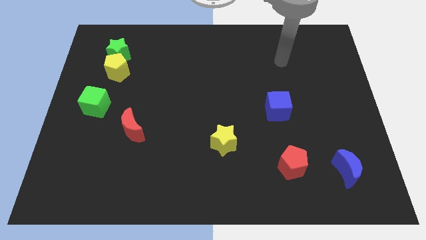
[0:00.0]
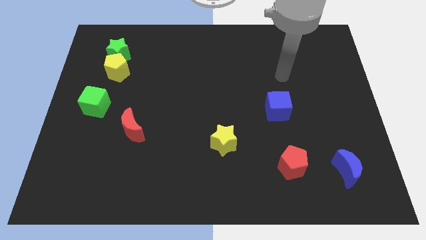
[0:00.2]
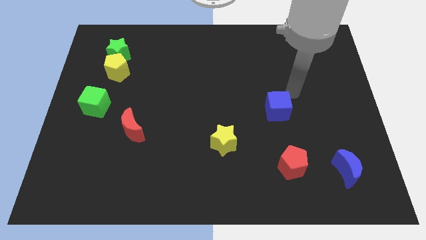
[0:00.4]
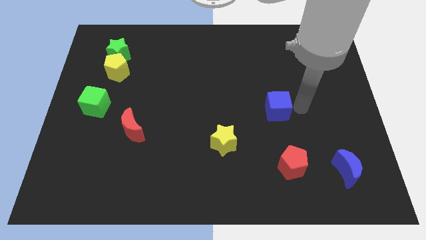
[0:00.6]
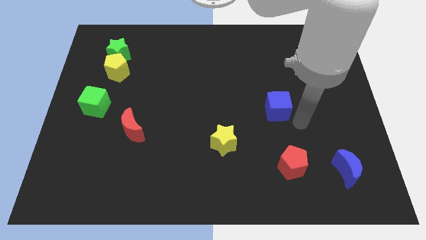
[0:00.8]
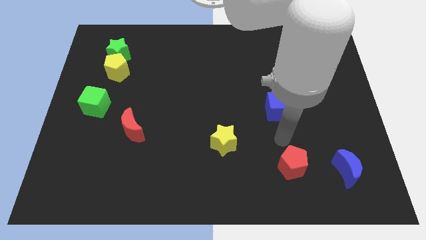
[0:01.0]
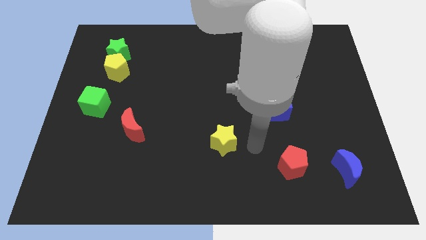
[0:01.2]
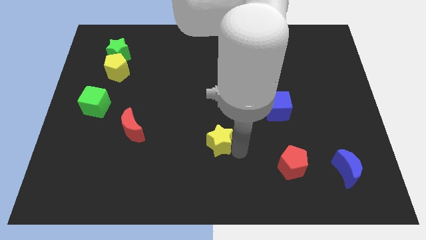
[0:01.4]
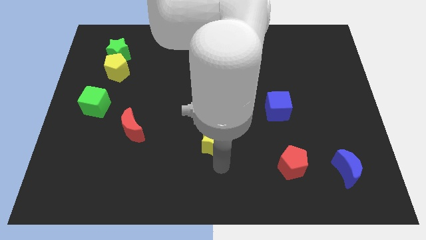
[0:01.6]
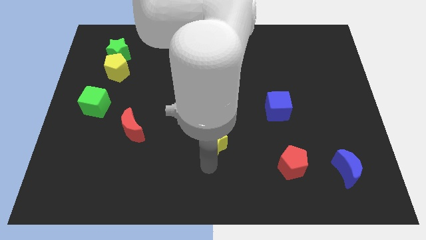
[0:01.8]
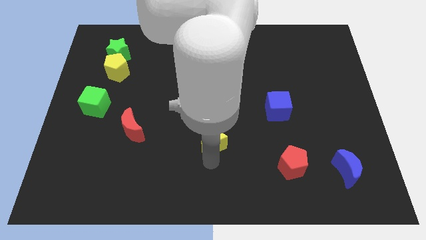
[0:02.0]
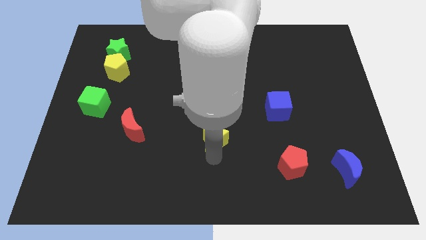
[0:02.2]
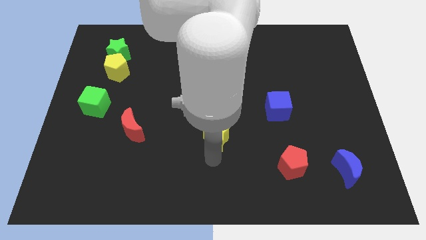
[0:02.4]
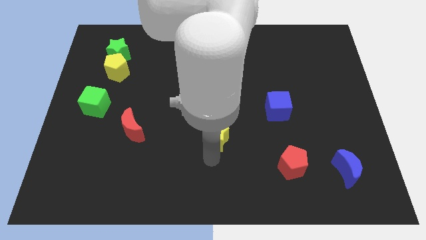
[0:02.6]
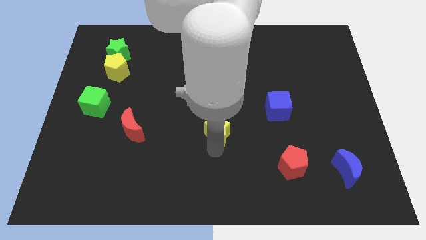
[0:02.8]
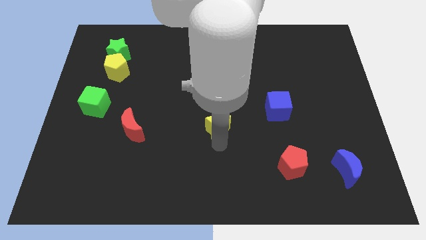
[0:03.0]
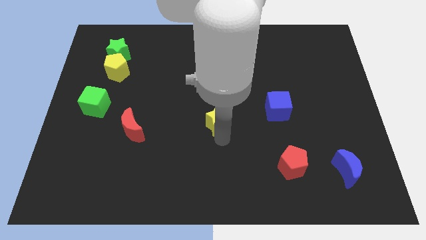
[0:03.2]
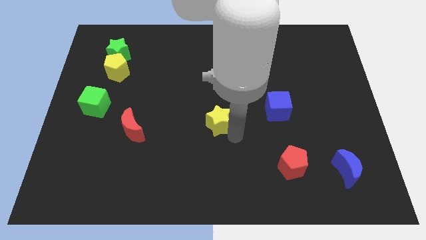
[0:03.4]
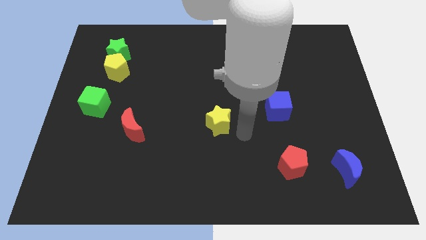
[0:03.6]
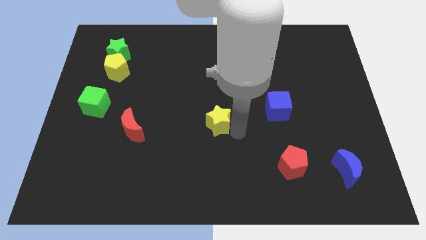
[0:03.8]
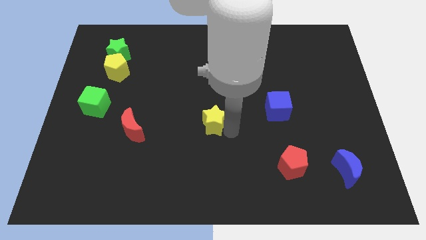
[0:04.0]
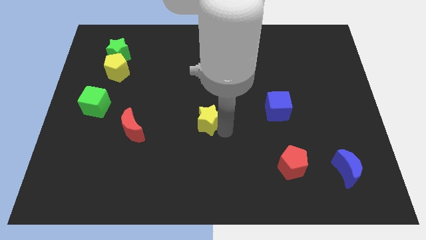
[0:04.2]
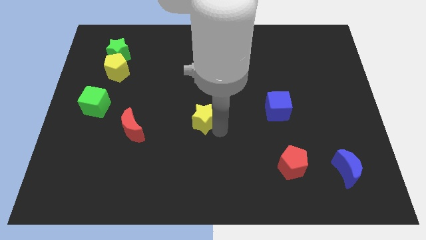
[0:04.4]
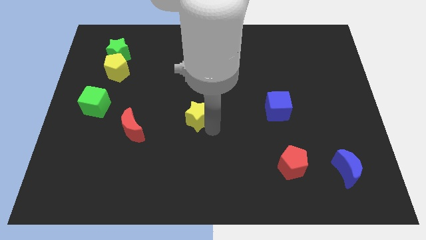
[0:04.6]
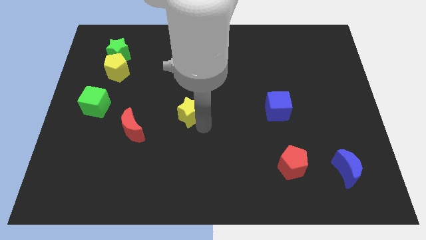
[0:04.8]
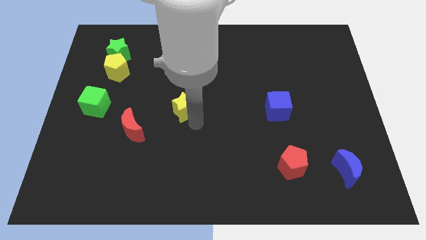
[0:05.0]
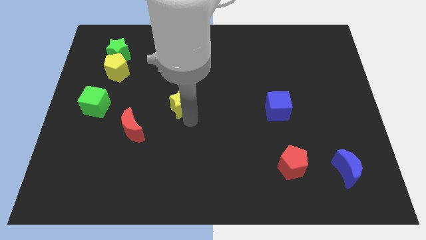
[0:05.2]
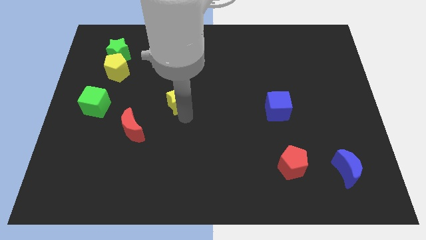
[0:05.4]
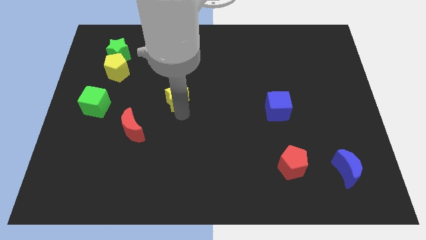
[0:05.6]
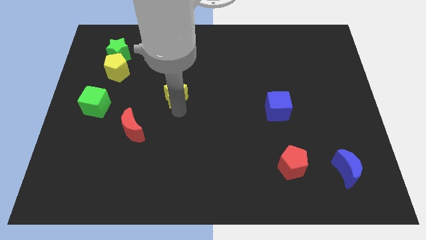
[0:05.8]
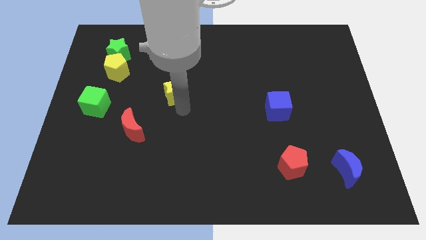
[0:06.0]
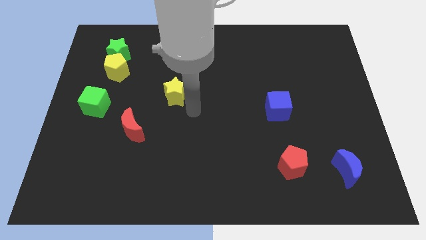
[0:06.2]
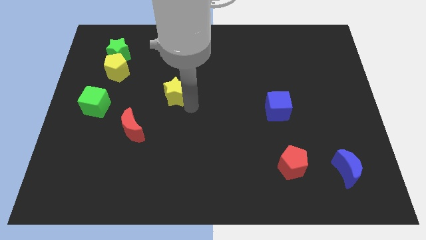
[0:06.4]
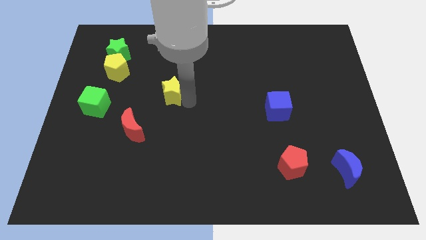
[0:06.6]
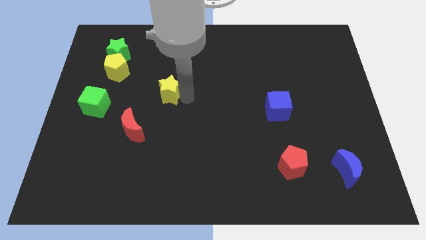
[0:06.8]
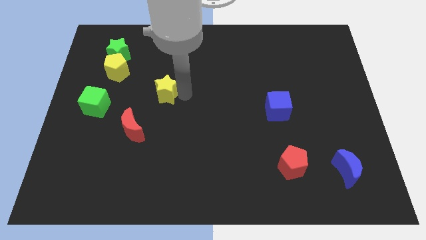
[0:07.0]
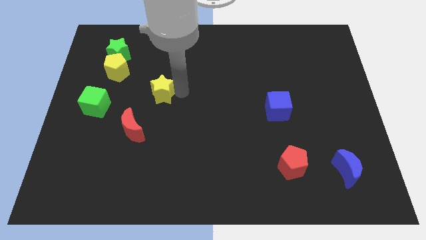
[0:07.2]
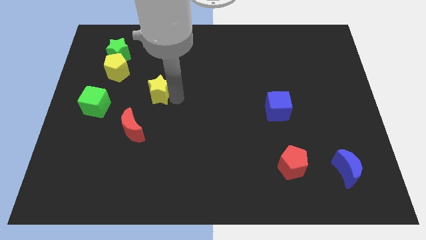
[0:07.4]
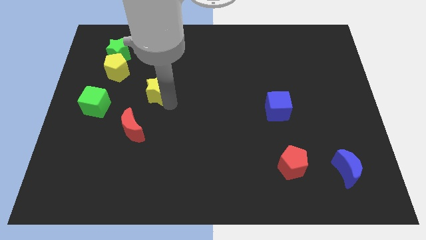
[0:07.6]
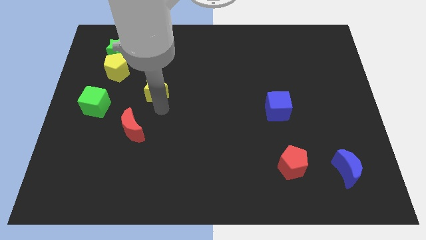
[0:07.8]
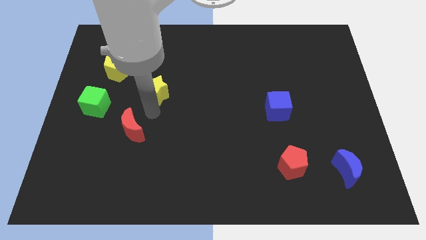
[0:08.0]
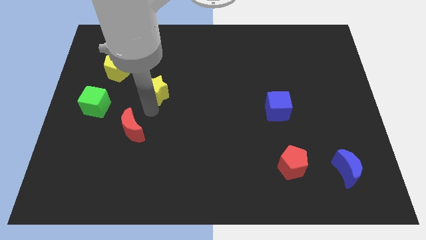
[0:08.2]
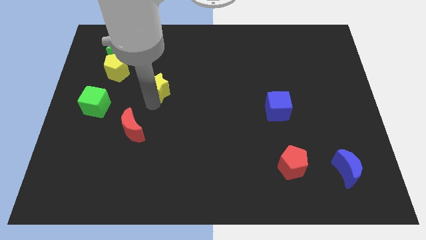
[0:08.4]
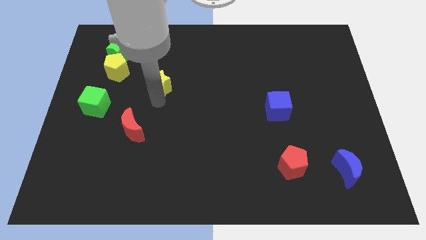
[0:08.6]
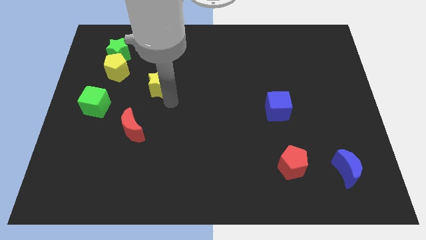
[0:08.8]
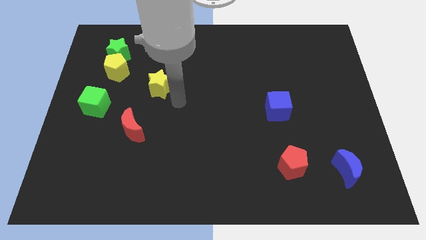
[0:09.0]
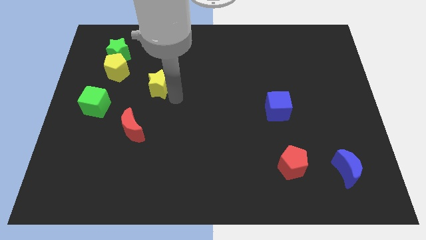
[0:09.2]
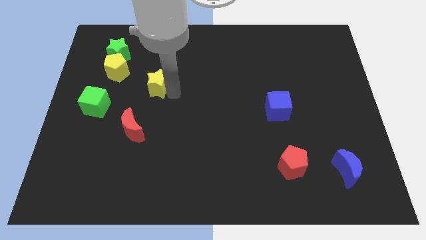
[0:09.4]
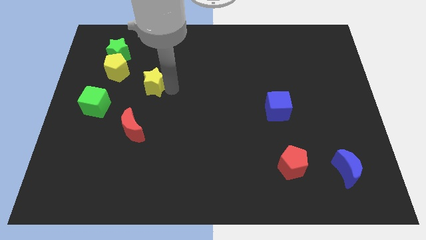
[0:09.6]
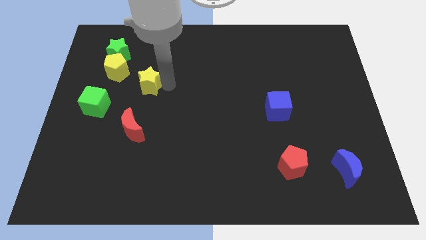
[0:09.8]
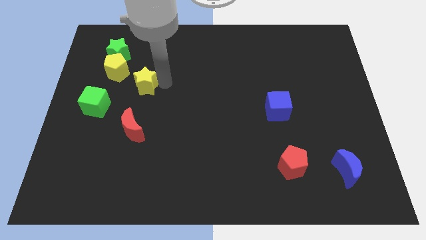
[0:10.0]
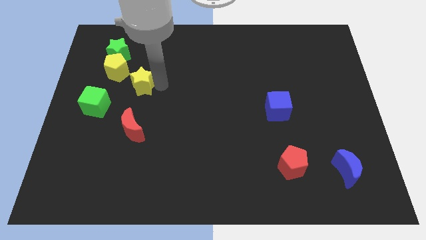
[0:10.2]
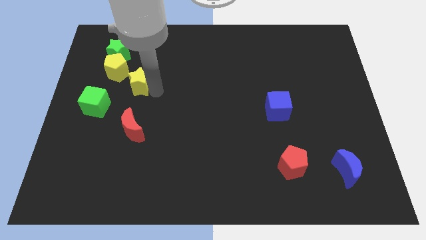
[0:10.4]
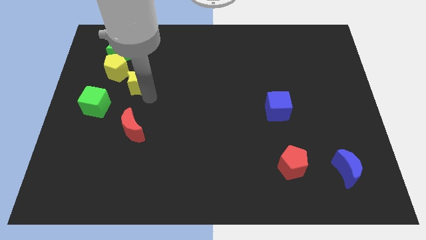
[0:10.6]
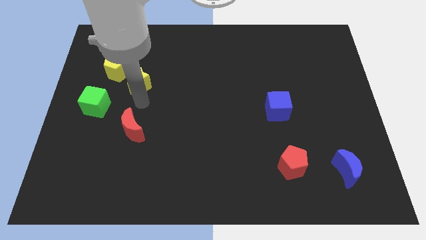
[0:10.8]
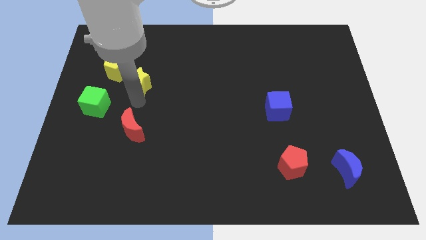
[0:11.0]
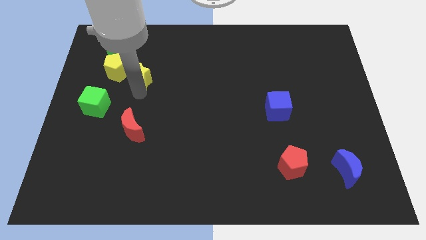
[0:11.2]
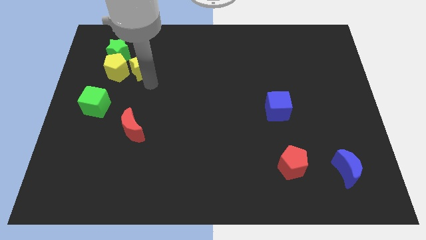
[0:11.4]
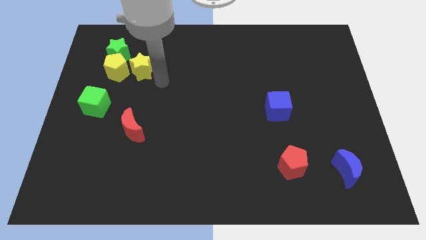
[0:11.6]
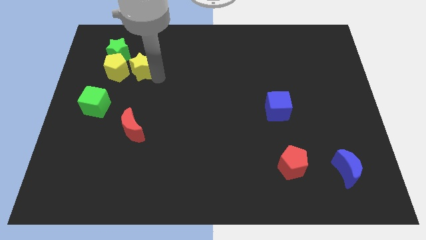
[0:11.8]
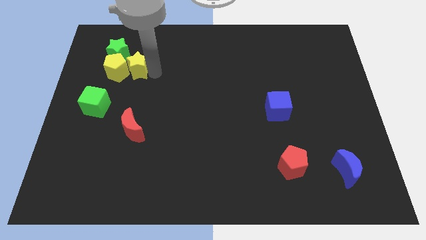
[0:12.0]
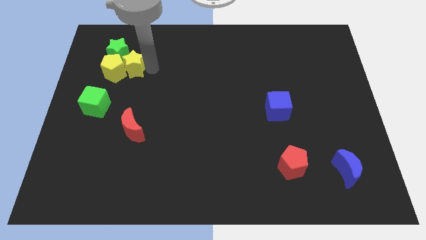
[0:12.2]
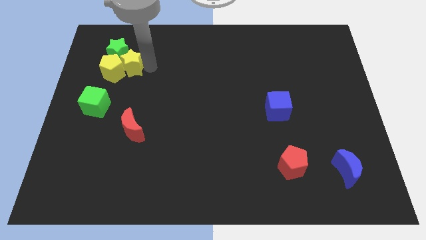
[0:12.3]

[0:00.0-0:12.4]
push the yellow star to the green star

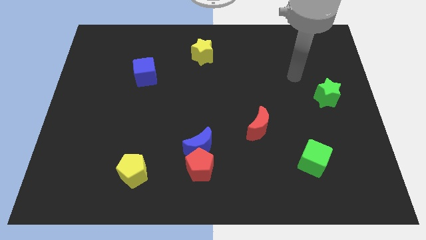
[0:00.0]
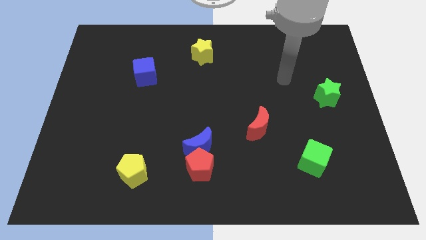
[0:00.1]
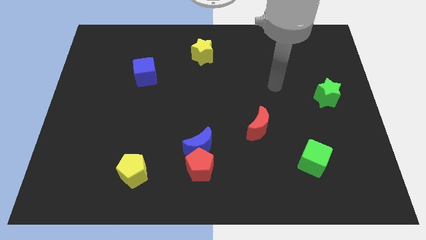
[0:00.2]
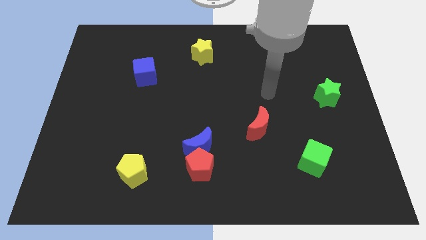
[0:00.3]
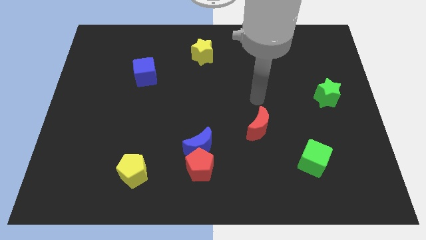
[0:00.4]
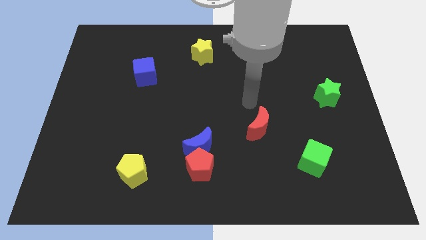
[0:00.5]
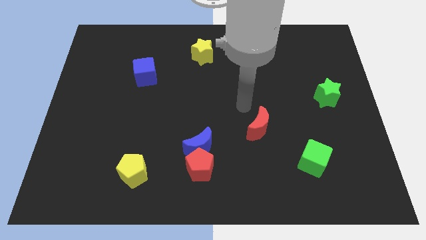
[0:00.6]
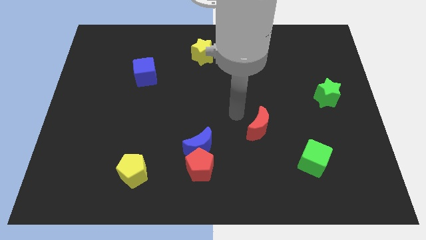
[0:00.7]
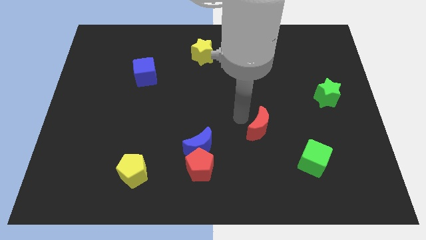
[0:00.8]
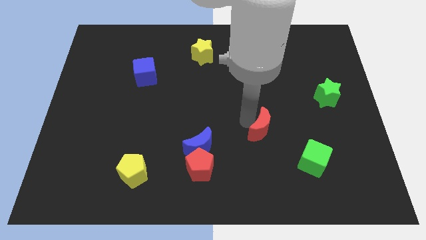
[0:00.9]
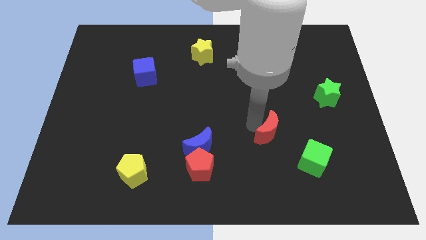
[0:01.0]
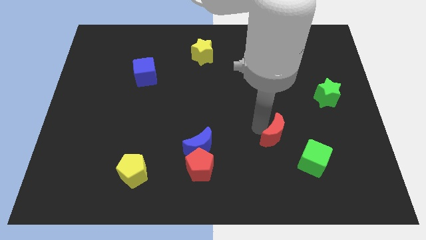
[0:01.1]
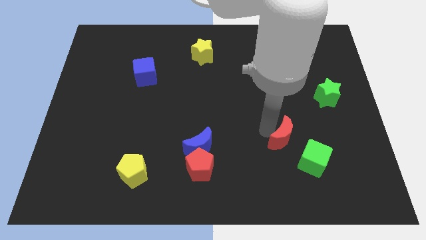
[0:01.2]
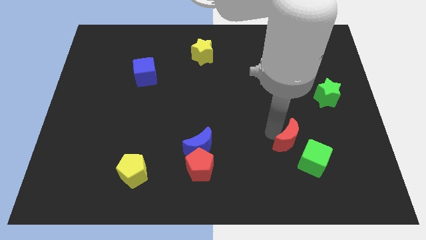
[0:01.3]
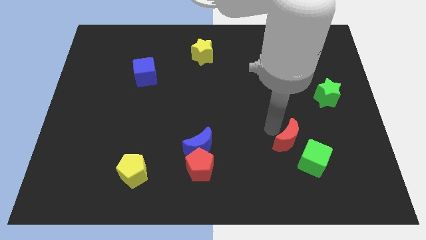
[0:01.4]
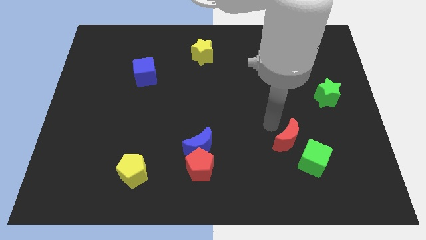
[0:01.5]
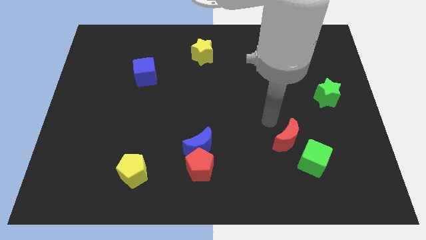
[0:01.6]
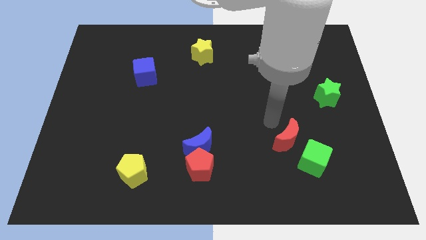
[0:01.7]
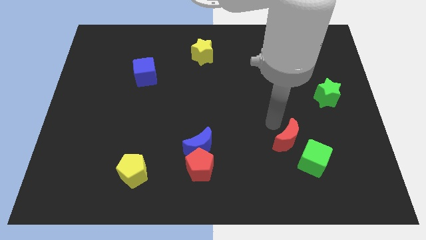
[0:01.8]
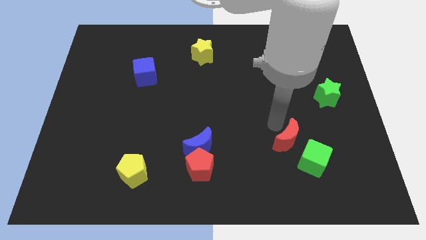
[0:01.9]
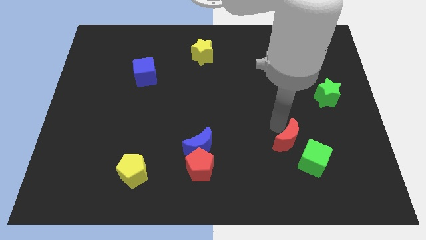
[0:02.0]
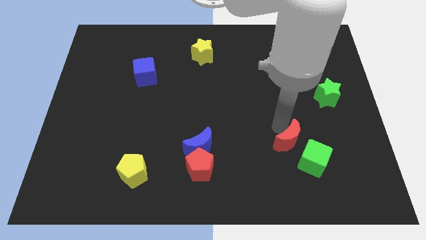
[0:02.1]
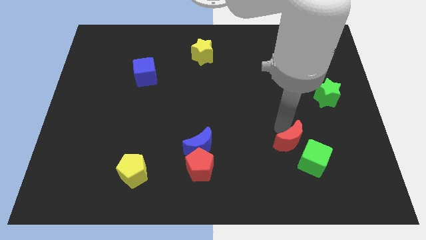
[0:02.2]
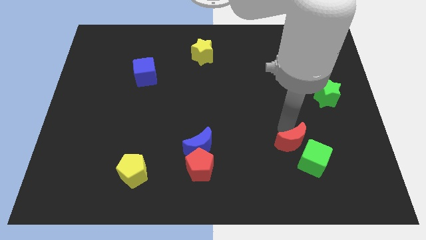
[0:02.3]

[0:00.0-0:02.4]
push the red moon close to the green cube
